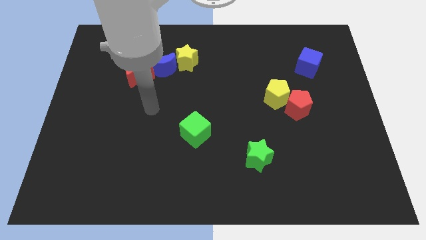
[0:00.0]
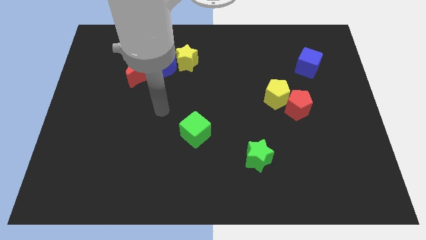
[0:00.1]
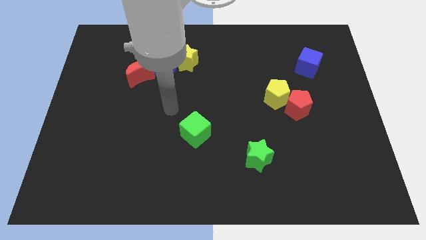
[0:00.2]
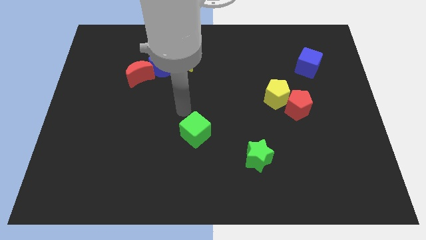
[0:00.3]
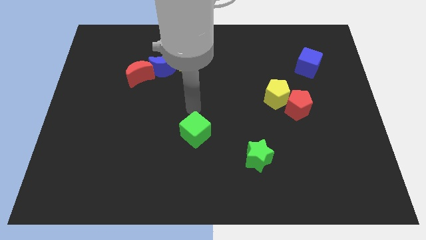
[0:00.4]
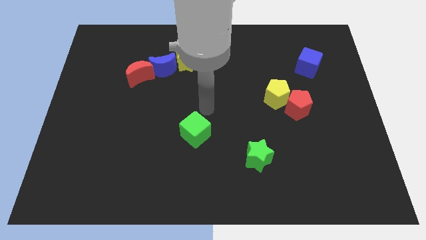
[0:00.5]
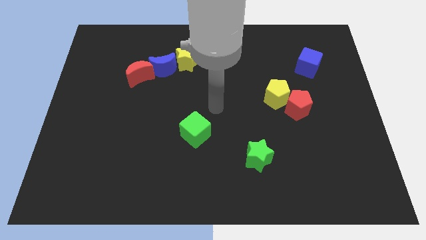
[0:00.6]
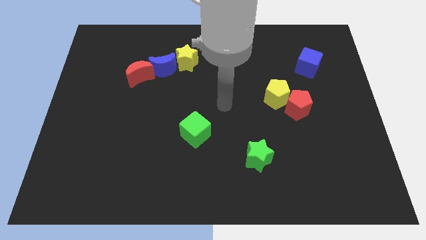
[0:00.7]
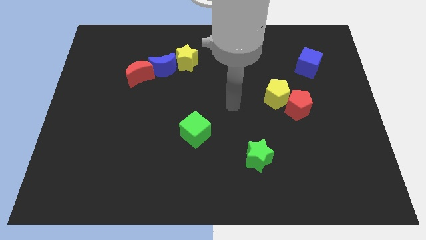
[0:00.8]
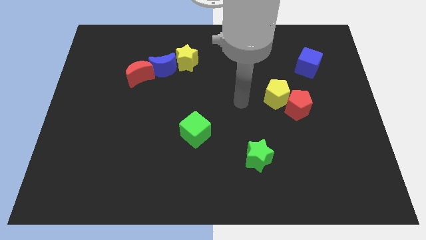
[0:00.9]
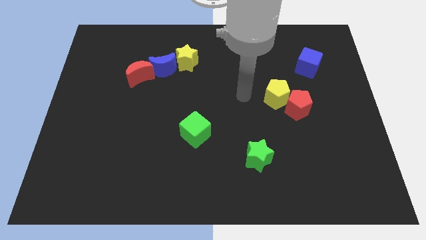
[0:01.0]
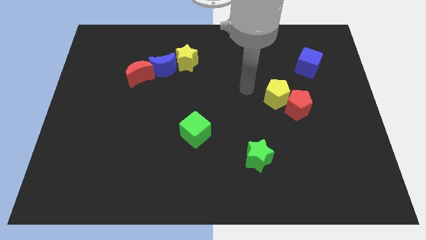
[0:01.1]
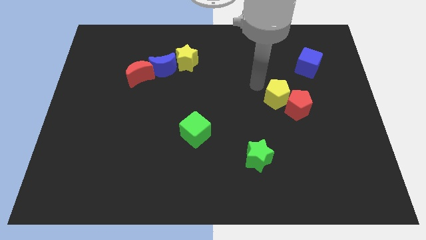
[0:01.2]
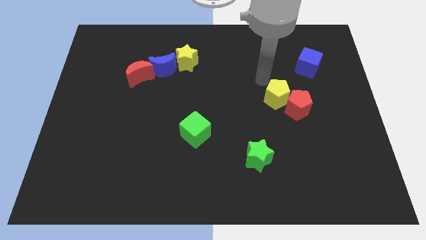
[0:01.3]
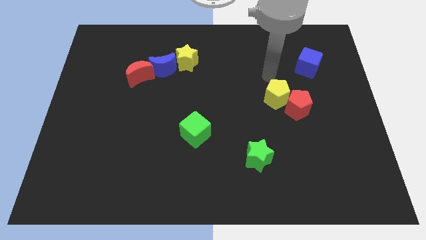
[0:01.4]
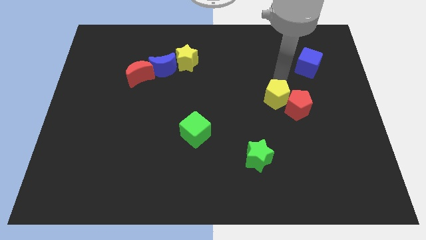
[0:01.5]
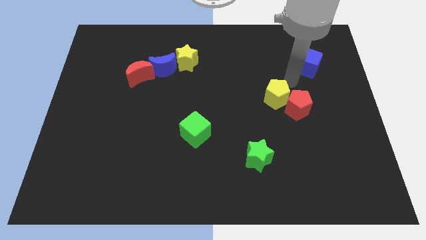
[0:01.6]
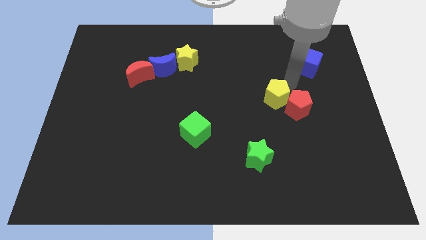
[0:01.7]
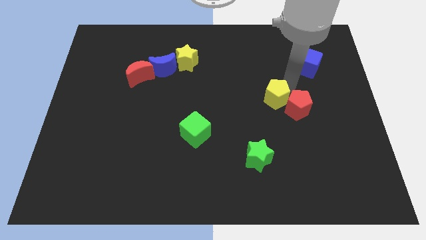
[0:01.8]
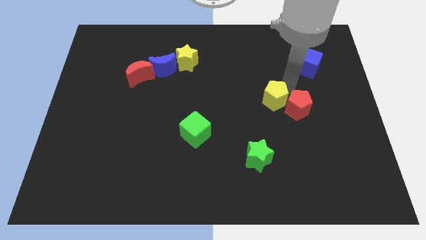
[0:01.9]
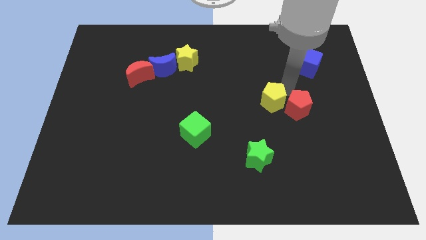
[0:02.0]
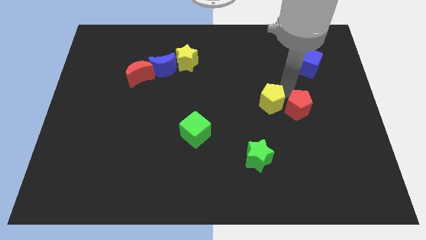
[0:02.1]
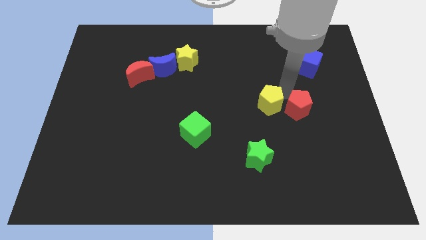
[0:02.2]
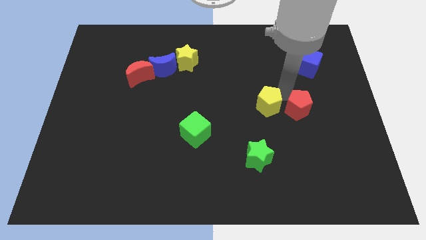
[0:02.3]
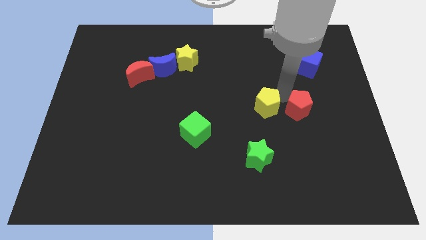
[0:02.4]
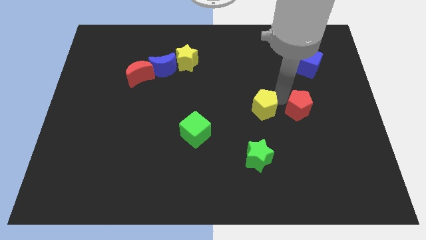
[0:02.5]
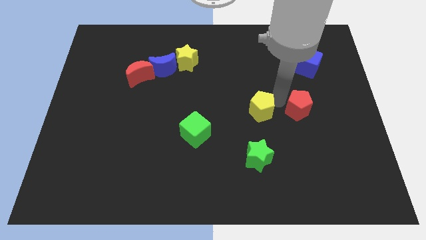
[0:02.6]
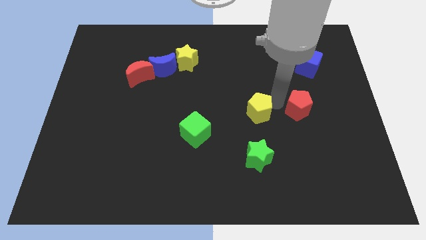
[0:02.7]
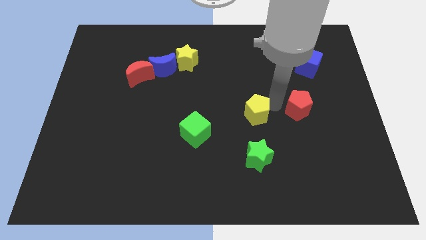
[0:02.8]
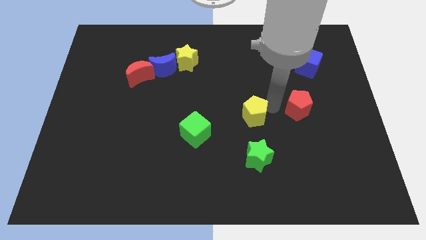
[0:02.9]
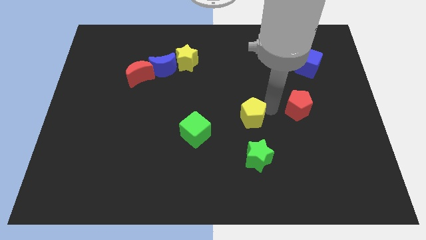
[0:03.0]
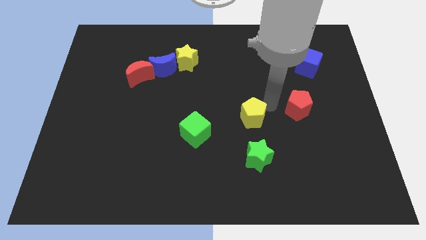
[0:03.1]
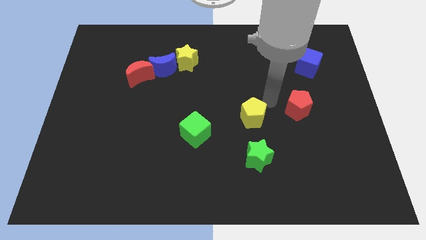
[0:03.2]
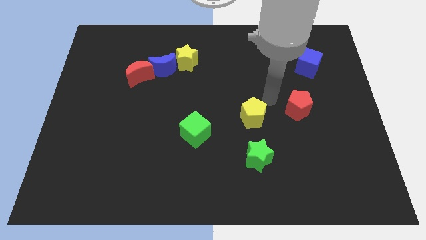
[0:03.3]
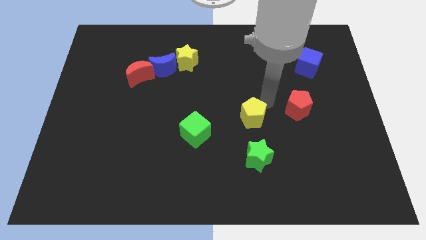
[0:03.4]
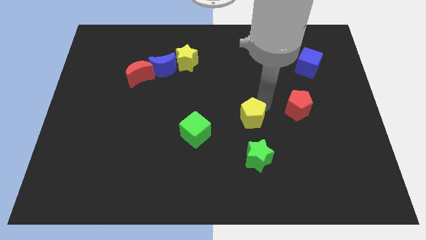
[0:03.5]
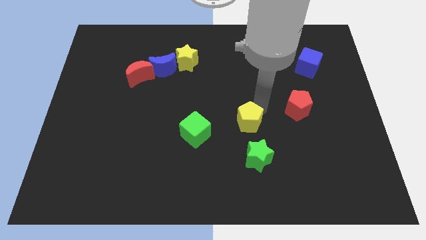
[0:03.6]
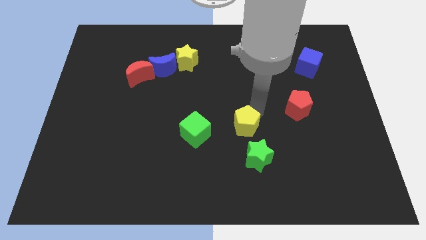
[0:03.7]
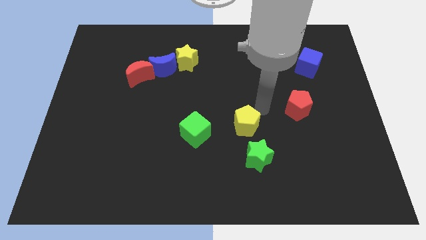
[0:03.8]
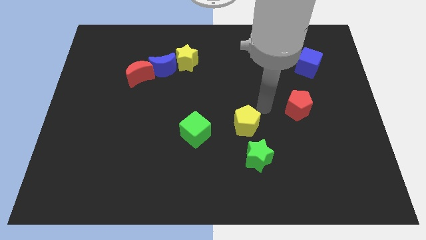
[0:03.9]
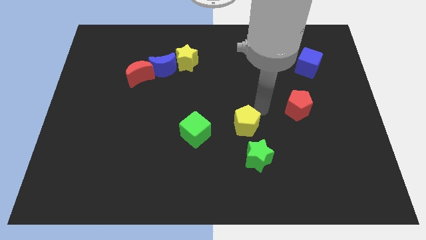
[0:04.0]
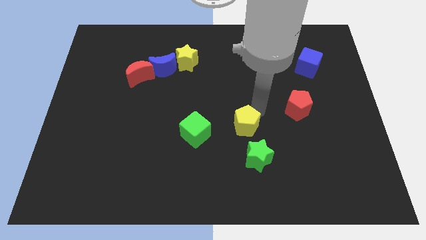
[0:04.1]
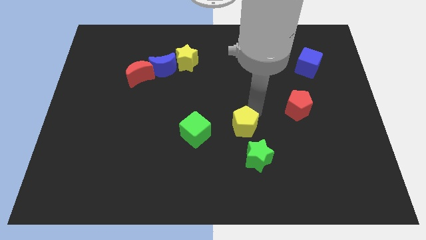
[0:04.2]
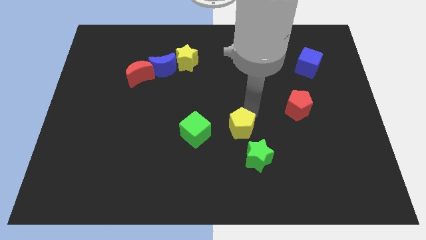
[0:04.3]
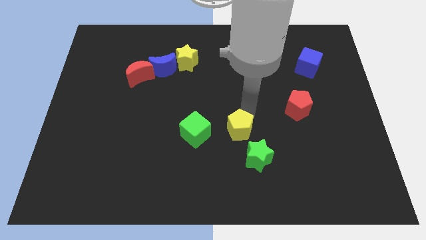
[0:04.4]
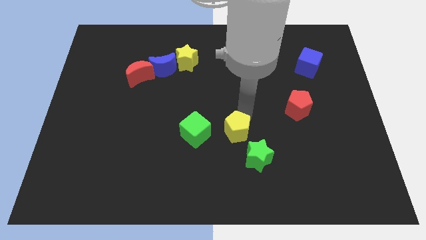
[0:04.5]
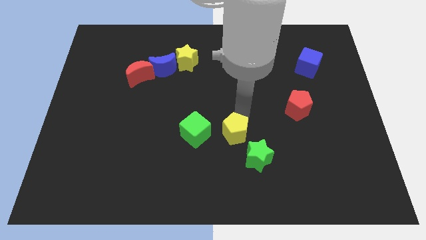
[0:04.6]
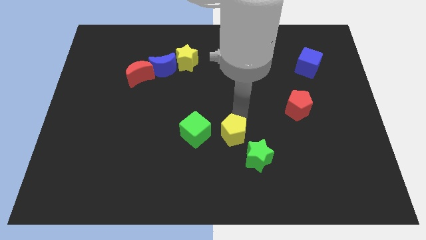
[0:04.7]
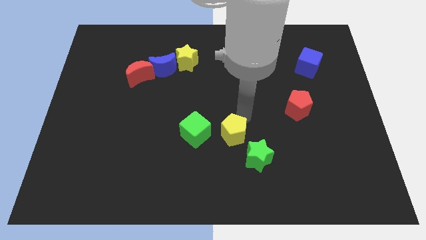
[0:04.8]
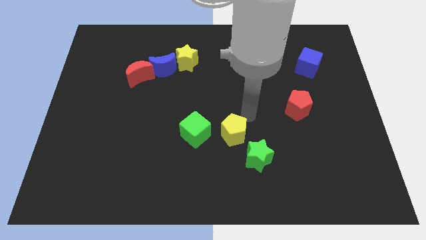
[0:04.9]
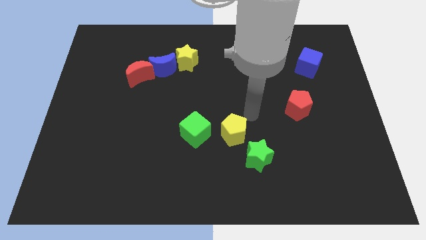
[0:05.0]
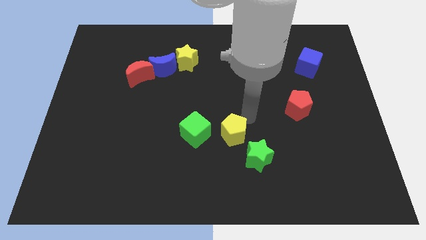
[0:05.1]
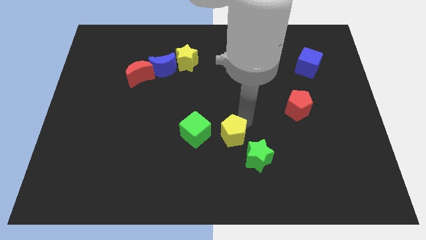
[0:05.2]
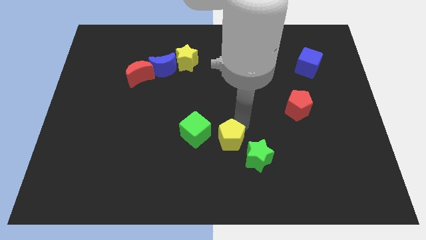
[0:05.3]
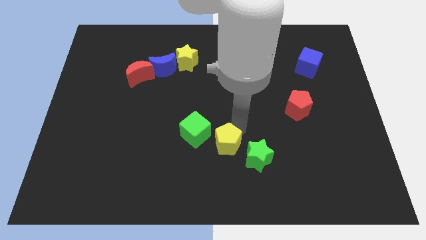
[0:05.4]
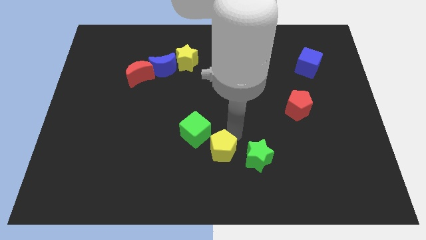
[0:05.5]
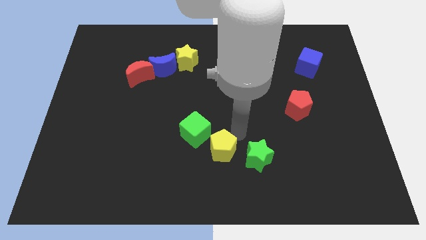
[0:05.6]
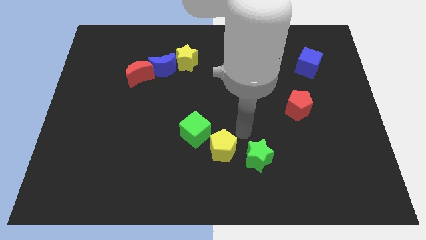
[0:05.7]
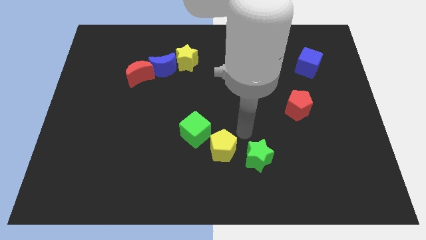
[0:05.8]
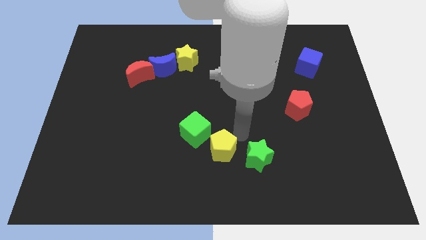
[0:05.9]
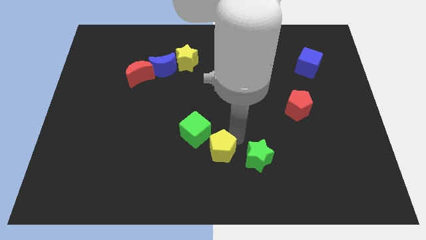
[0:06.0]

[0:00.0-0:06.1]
slide the yellow pentagon downwards and then to the left

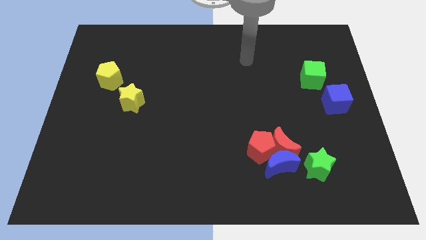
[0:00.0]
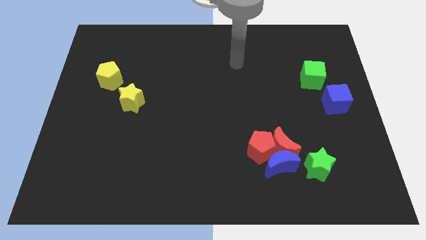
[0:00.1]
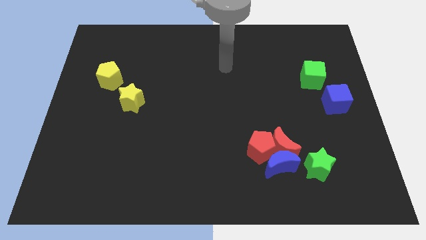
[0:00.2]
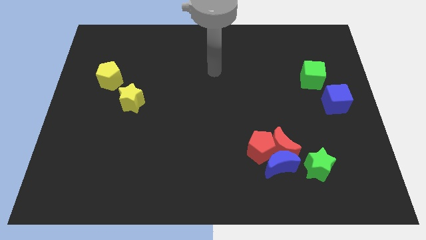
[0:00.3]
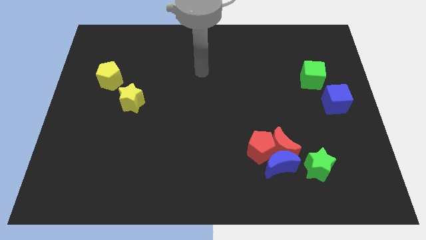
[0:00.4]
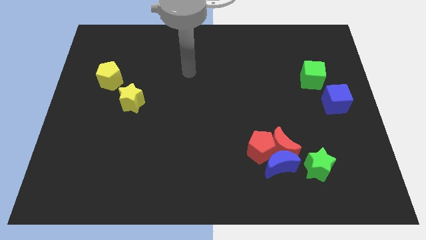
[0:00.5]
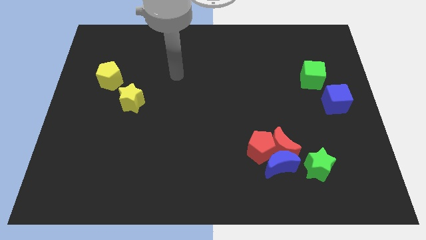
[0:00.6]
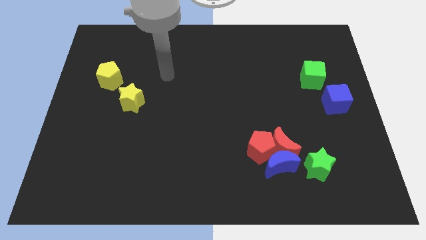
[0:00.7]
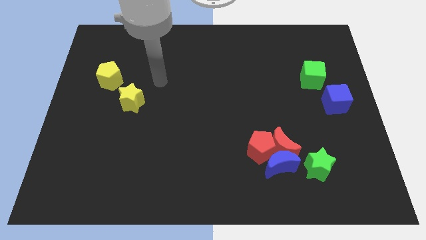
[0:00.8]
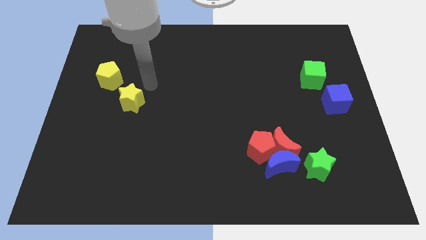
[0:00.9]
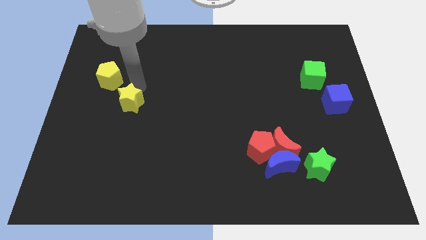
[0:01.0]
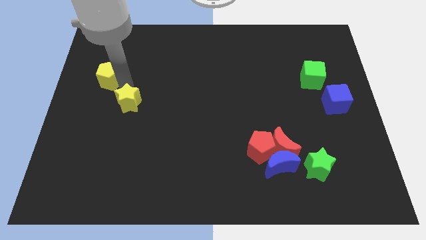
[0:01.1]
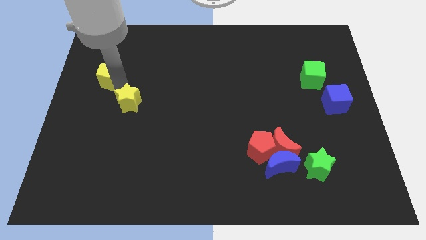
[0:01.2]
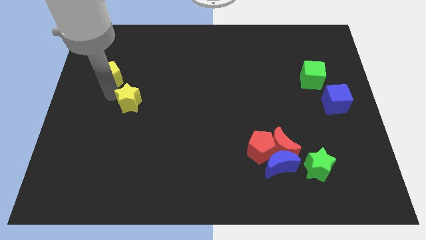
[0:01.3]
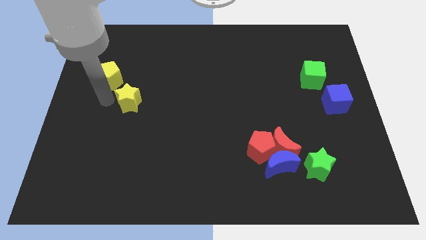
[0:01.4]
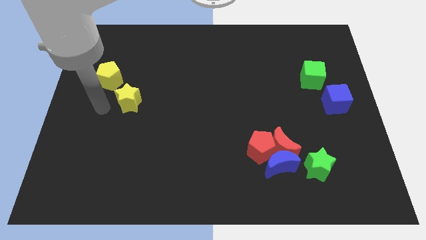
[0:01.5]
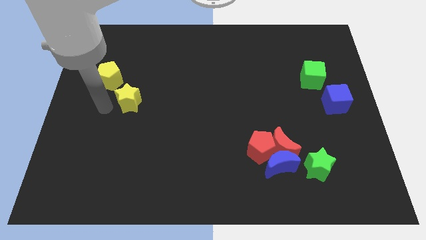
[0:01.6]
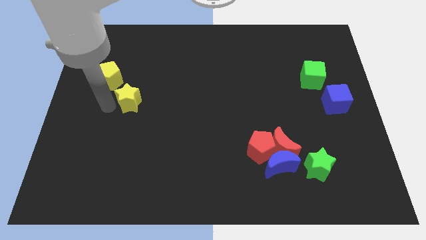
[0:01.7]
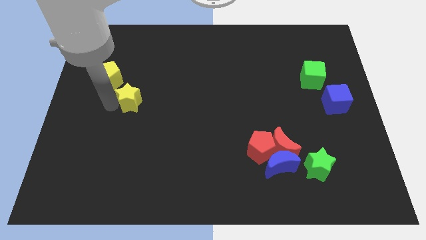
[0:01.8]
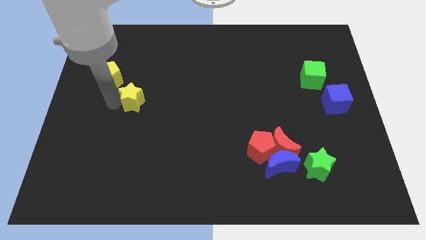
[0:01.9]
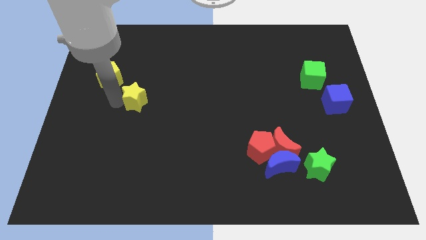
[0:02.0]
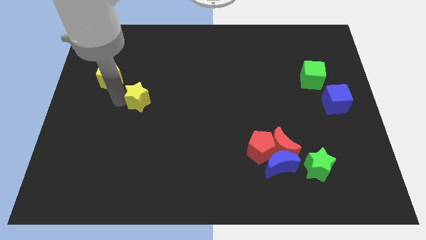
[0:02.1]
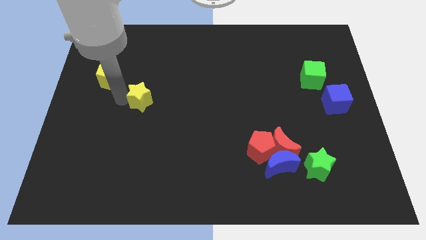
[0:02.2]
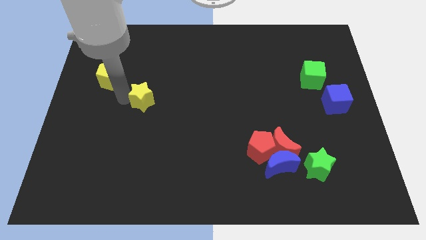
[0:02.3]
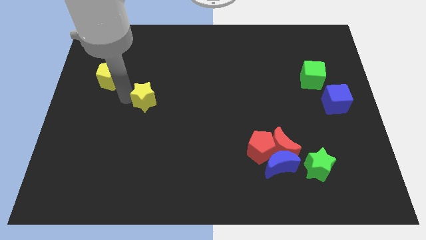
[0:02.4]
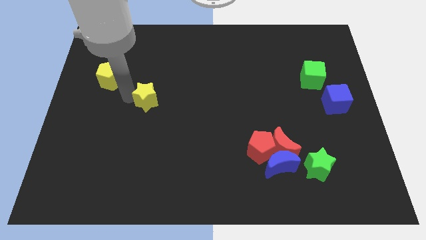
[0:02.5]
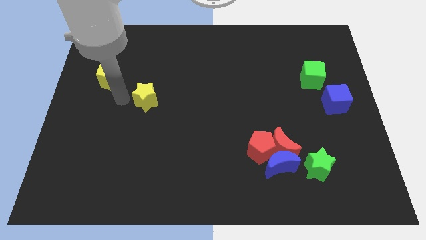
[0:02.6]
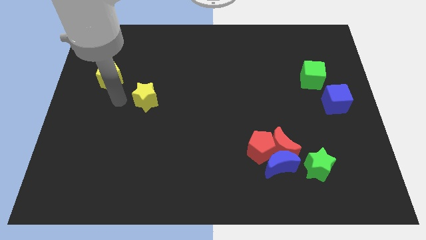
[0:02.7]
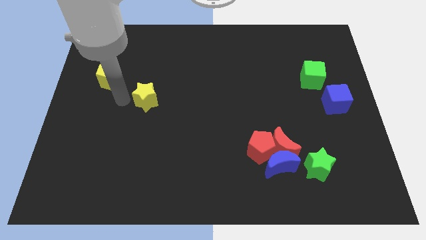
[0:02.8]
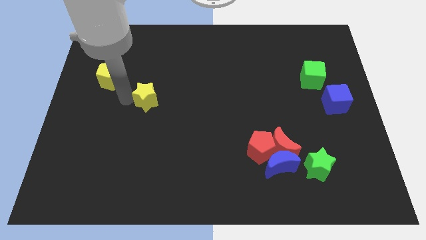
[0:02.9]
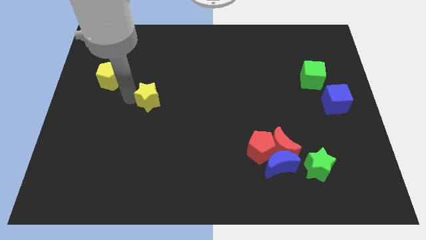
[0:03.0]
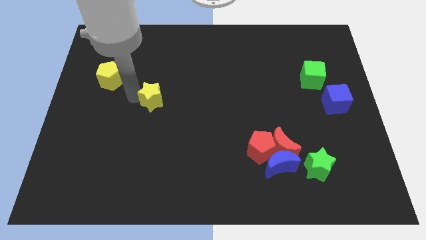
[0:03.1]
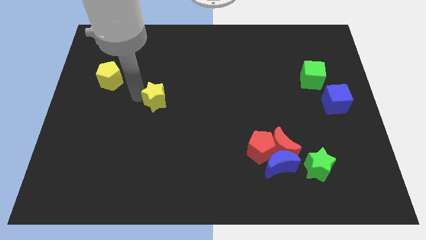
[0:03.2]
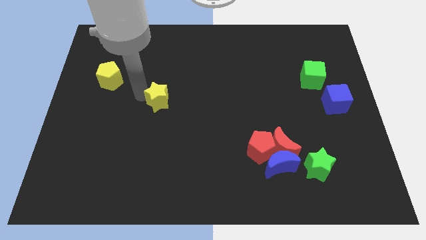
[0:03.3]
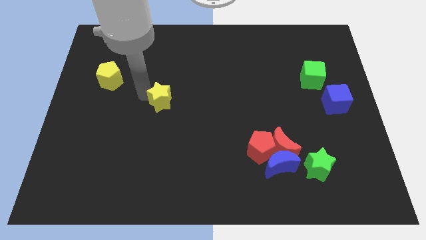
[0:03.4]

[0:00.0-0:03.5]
slide the yellow star a bit to the right
